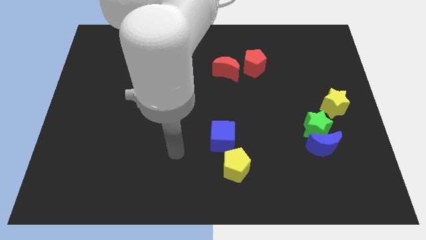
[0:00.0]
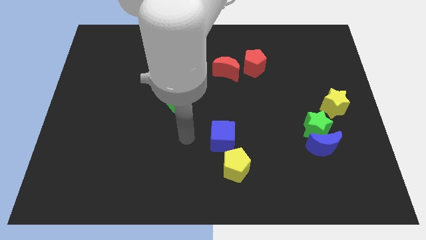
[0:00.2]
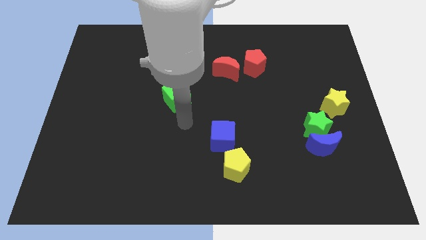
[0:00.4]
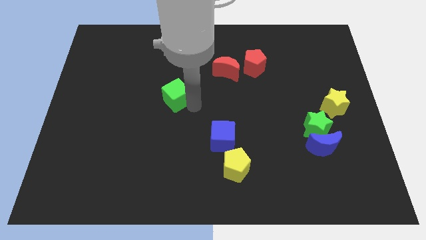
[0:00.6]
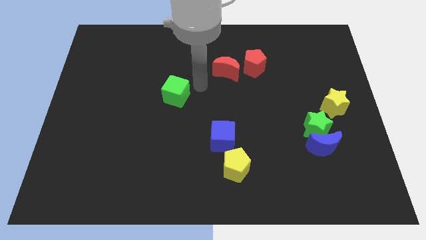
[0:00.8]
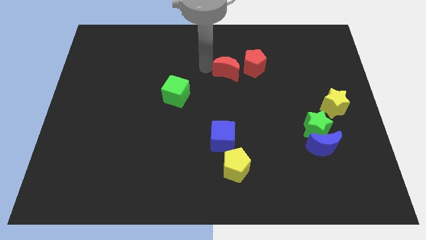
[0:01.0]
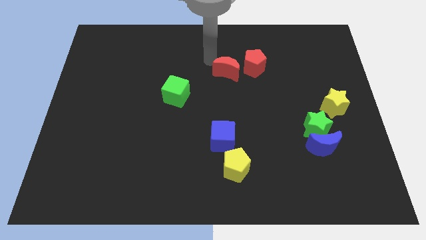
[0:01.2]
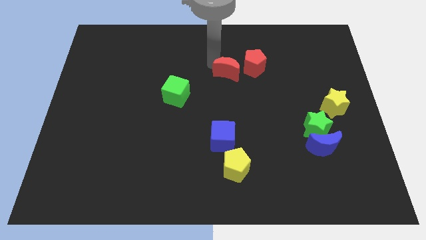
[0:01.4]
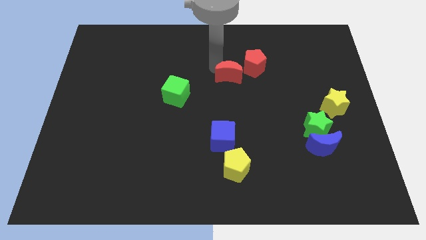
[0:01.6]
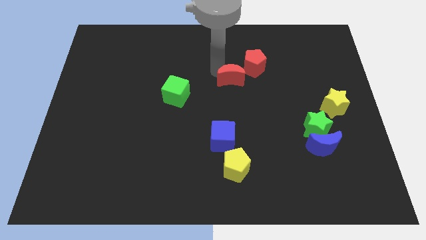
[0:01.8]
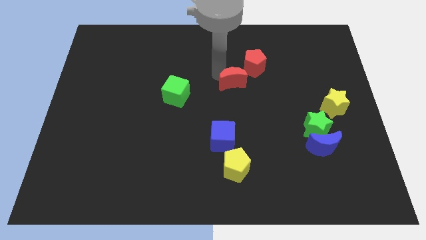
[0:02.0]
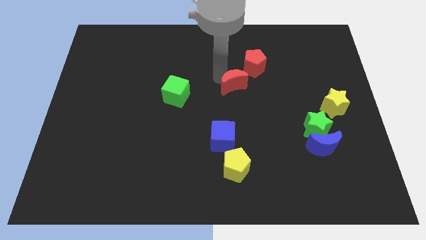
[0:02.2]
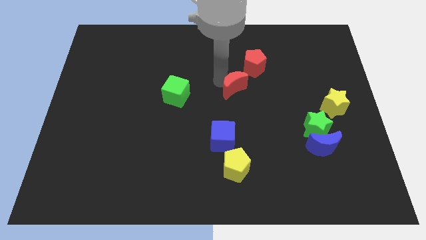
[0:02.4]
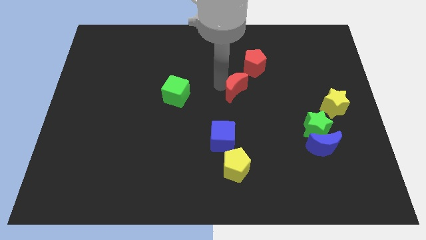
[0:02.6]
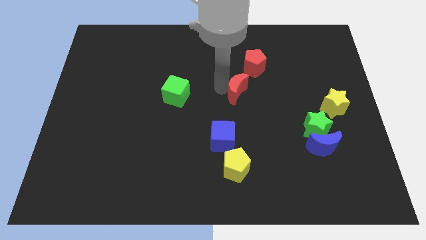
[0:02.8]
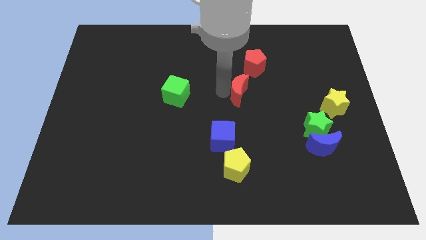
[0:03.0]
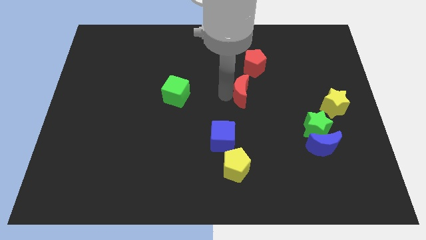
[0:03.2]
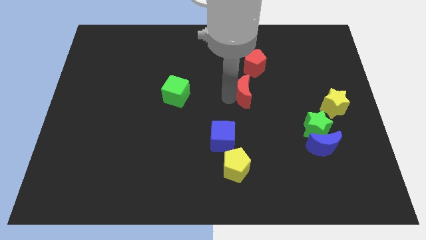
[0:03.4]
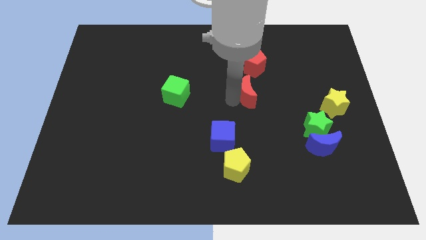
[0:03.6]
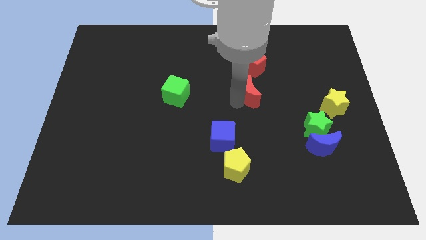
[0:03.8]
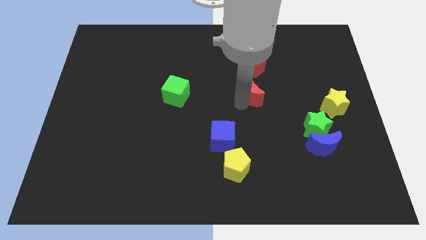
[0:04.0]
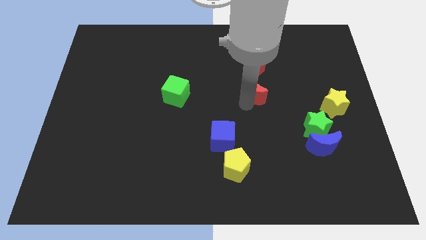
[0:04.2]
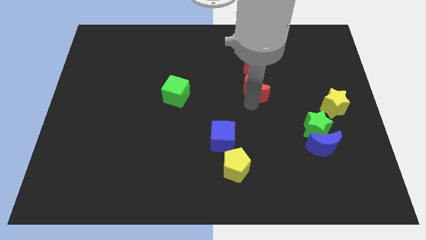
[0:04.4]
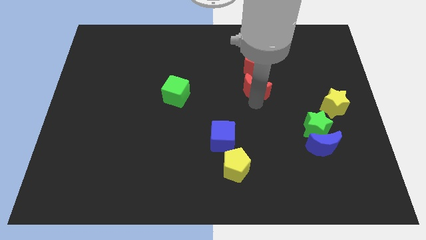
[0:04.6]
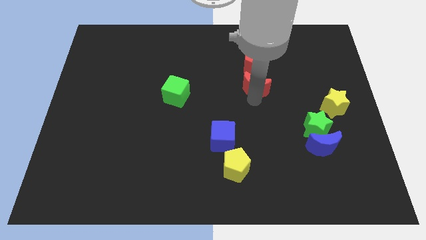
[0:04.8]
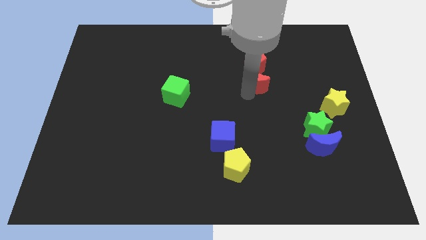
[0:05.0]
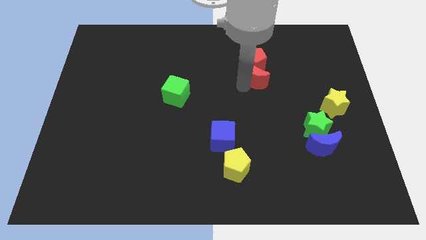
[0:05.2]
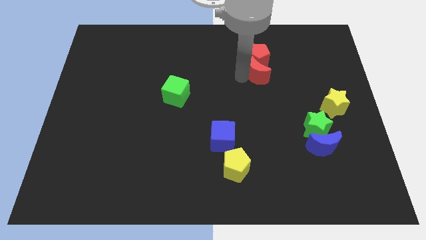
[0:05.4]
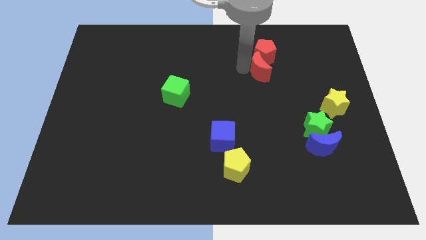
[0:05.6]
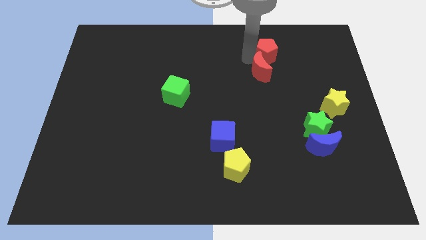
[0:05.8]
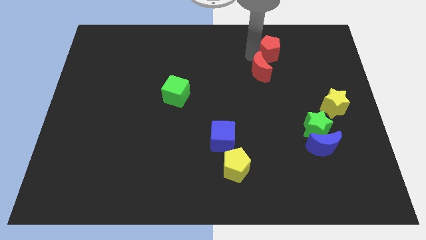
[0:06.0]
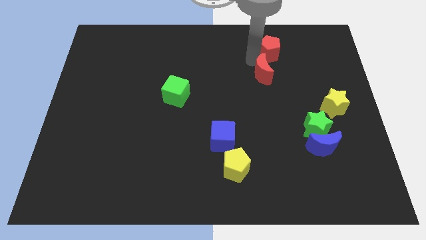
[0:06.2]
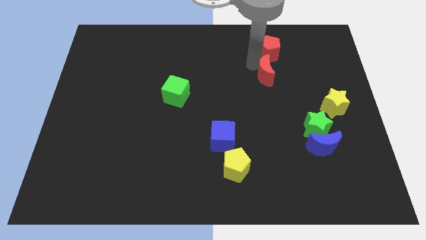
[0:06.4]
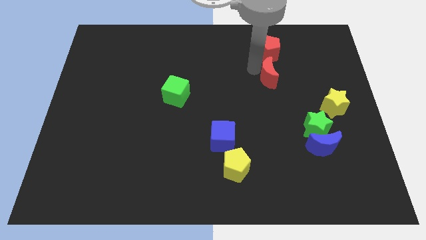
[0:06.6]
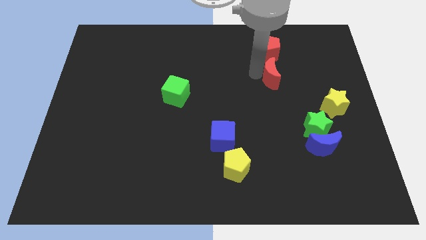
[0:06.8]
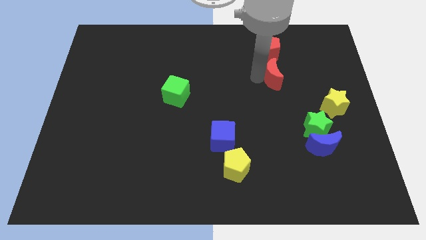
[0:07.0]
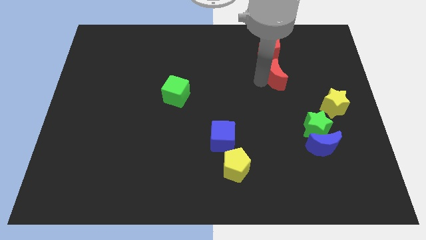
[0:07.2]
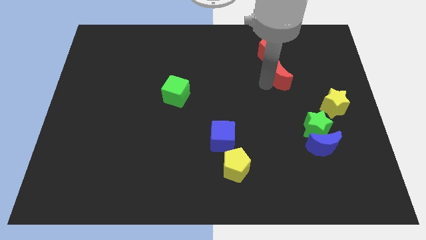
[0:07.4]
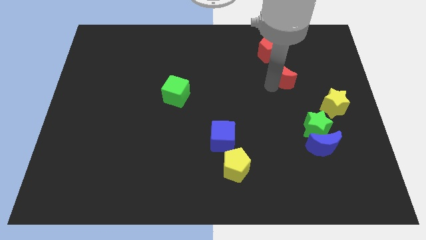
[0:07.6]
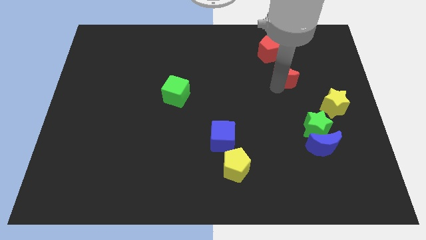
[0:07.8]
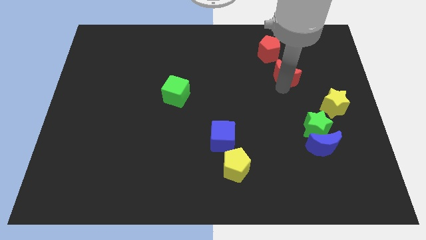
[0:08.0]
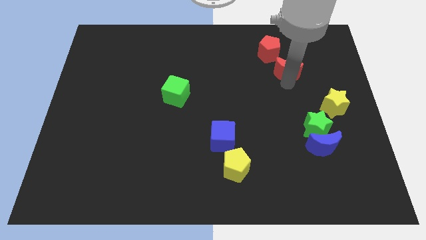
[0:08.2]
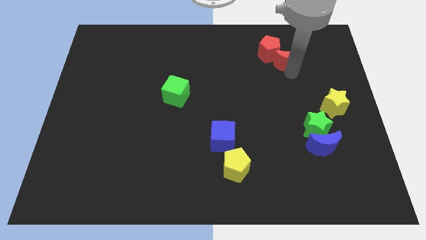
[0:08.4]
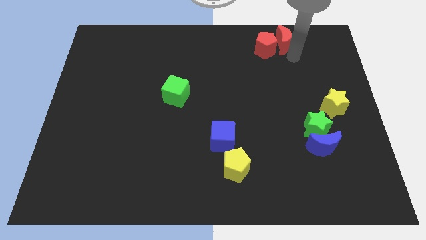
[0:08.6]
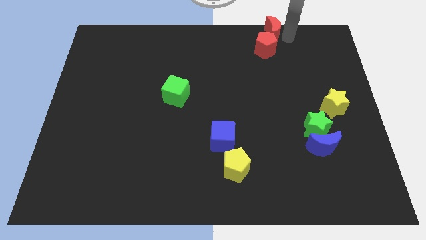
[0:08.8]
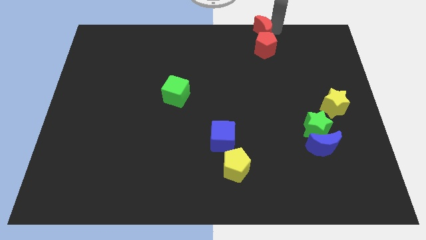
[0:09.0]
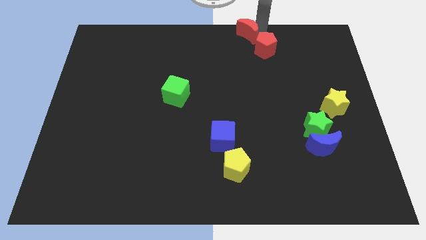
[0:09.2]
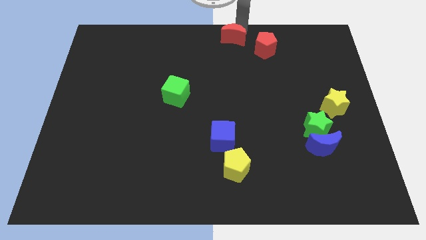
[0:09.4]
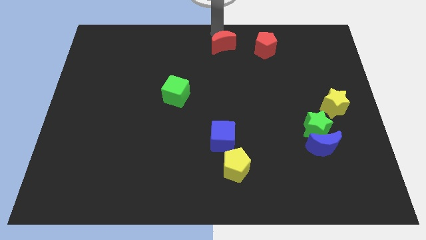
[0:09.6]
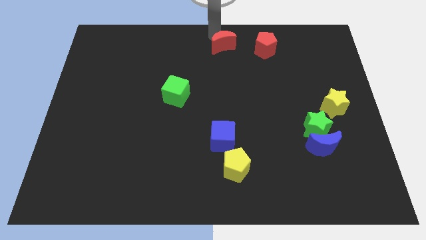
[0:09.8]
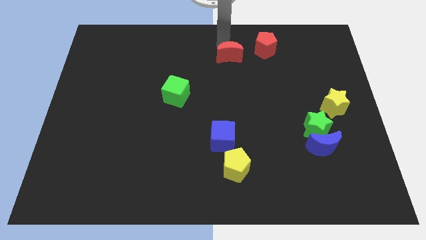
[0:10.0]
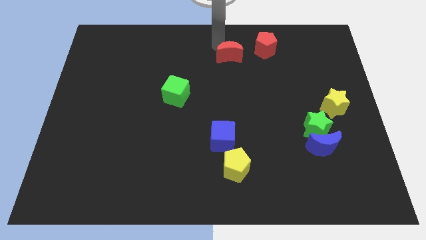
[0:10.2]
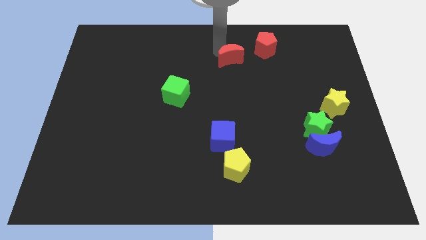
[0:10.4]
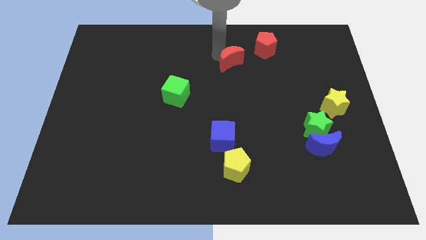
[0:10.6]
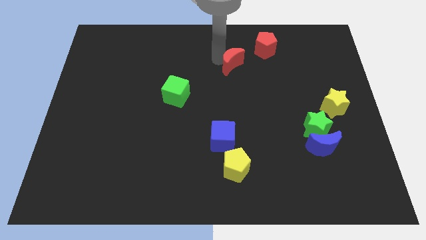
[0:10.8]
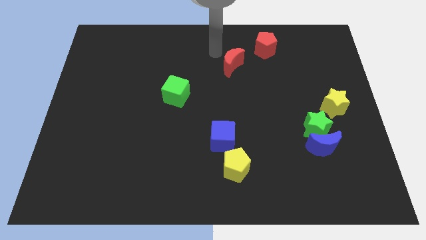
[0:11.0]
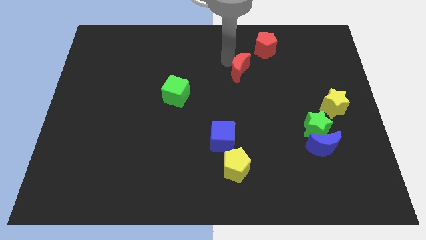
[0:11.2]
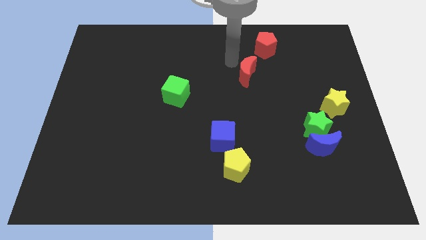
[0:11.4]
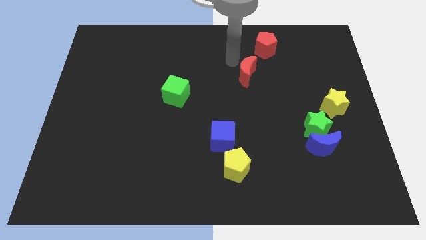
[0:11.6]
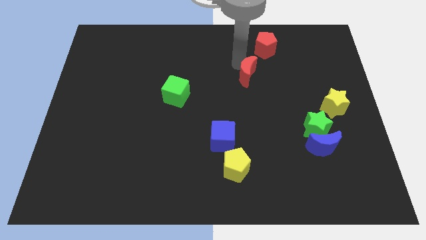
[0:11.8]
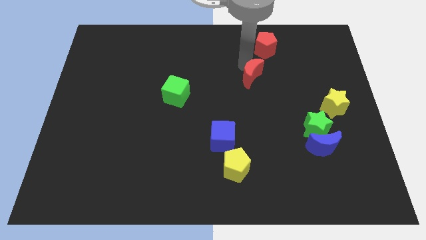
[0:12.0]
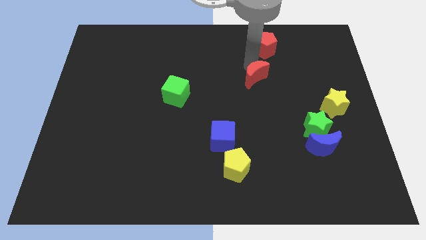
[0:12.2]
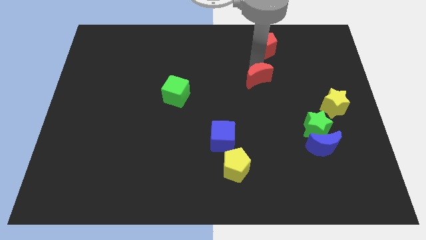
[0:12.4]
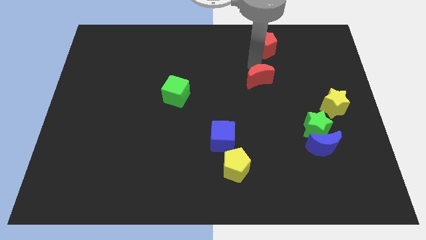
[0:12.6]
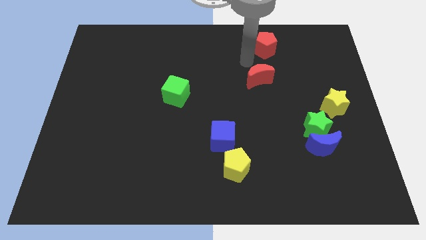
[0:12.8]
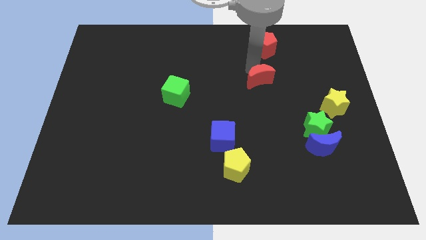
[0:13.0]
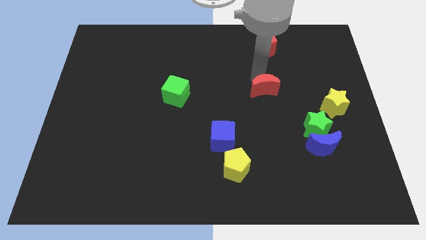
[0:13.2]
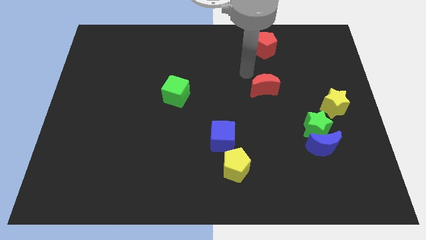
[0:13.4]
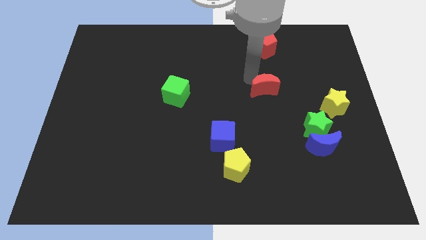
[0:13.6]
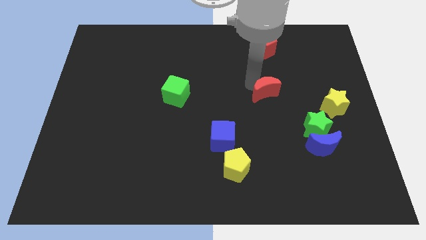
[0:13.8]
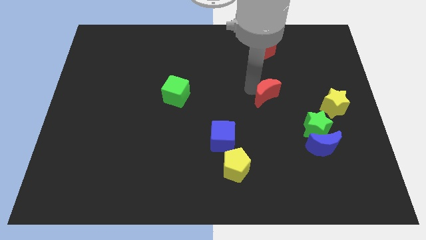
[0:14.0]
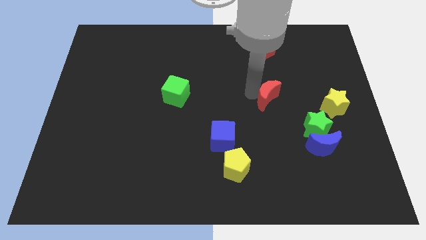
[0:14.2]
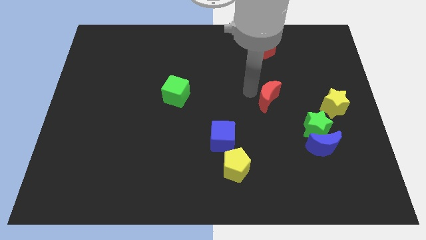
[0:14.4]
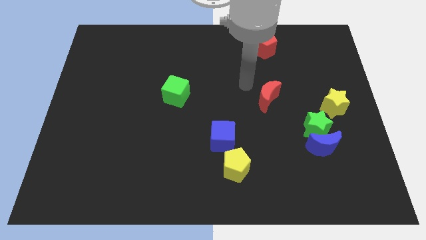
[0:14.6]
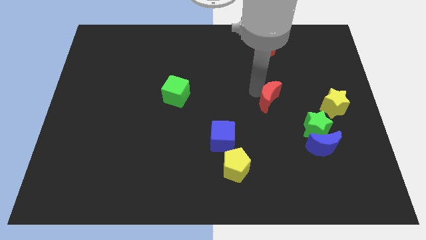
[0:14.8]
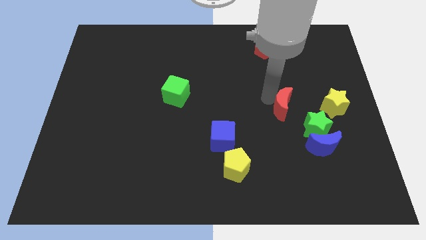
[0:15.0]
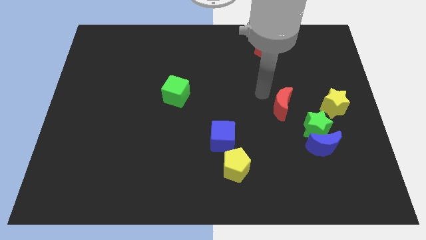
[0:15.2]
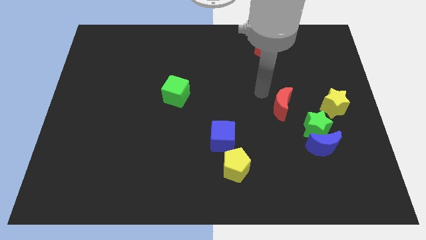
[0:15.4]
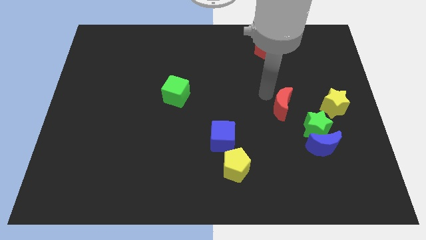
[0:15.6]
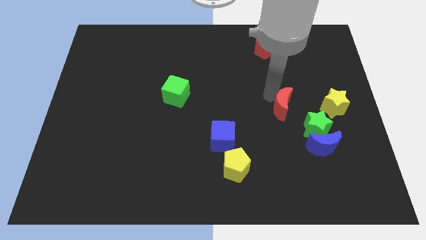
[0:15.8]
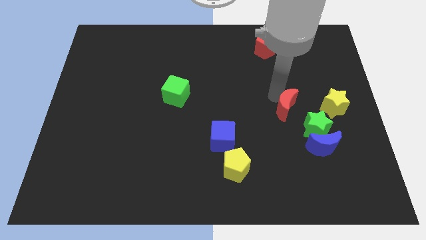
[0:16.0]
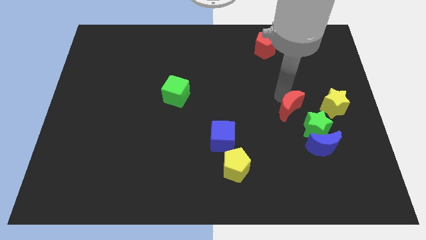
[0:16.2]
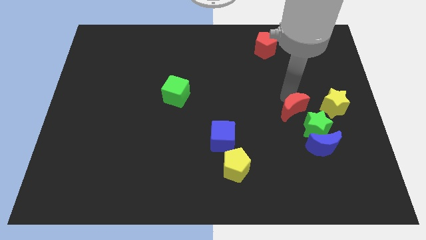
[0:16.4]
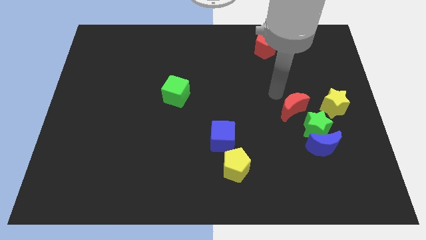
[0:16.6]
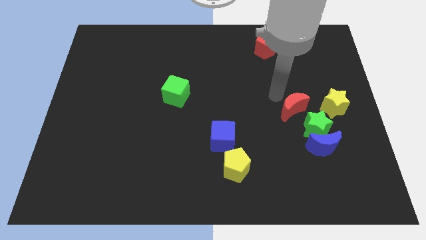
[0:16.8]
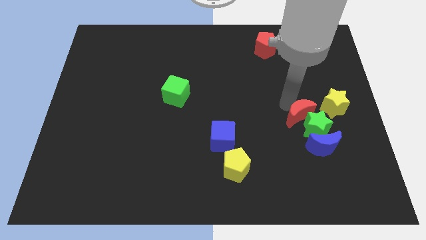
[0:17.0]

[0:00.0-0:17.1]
push the red moon towards the green star
